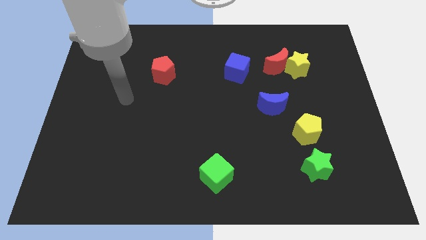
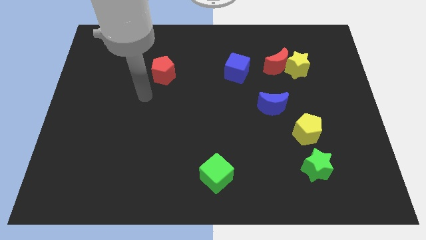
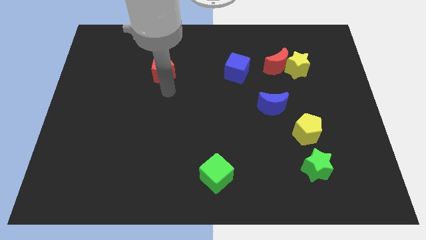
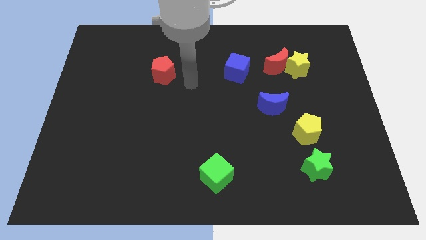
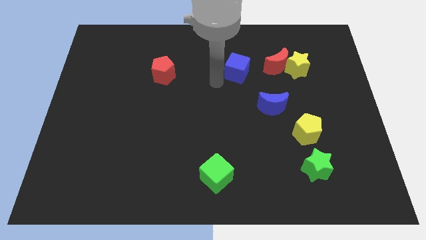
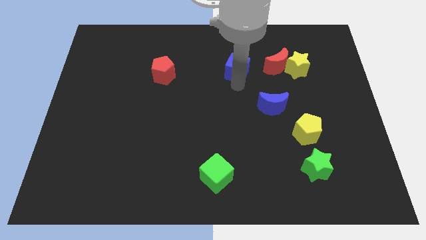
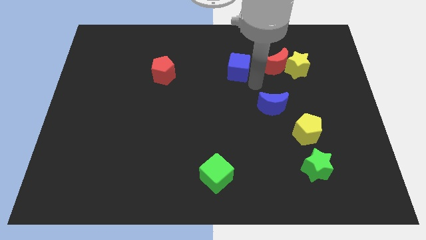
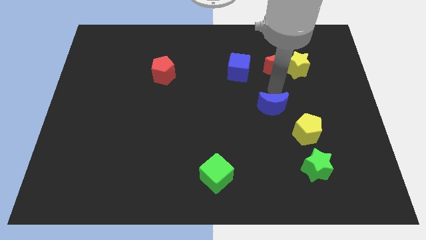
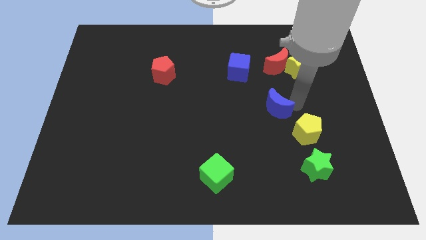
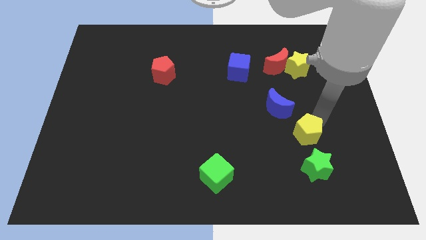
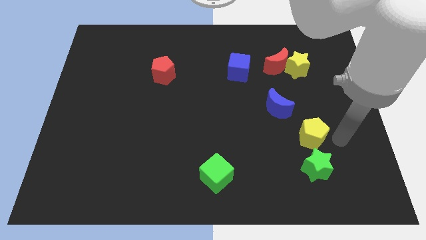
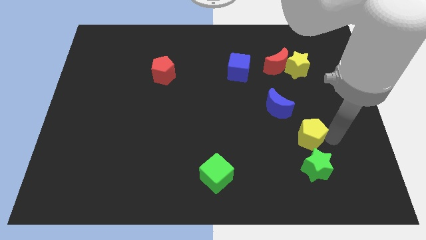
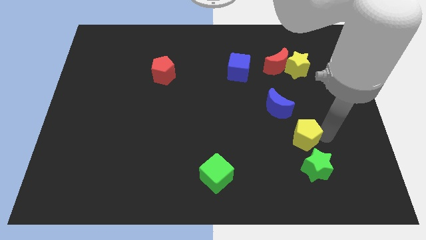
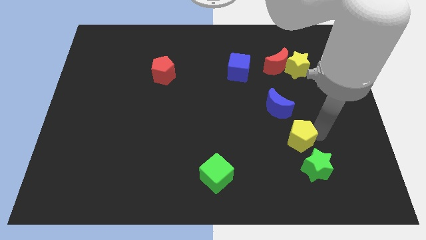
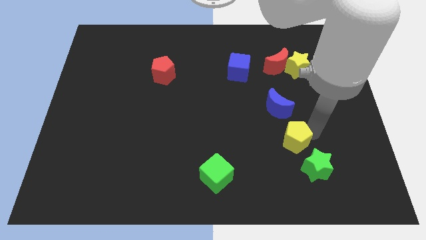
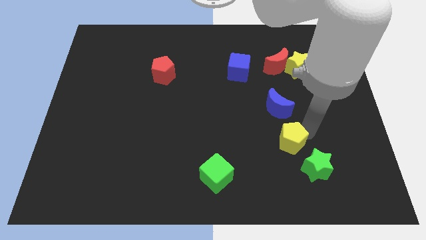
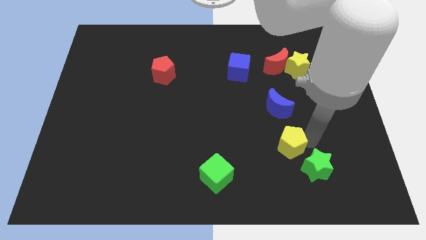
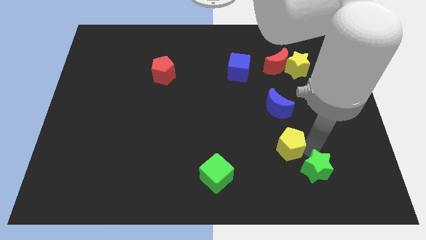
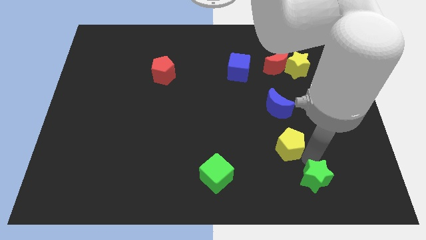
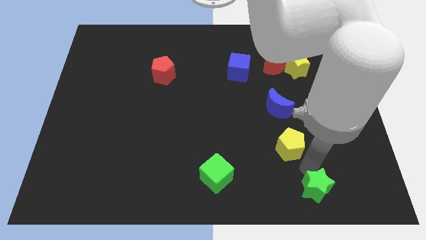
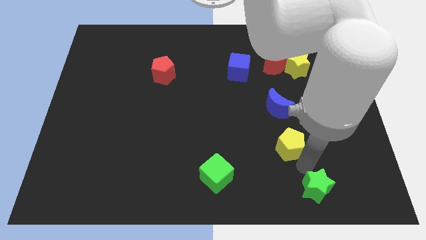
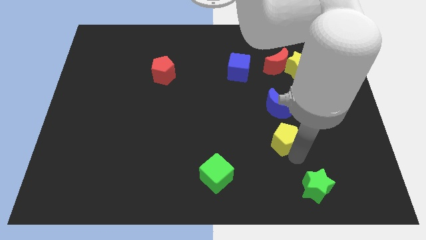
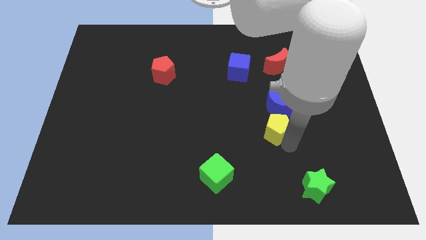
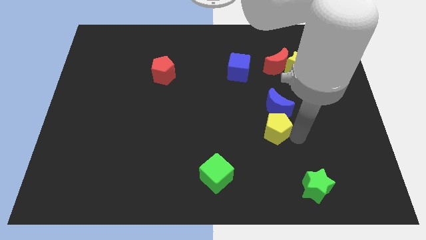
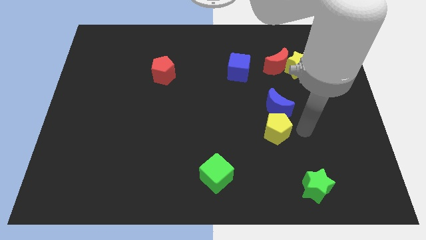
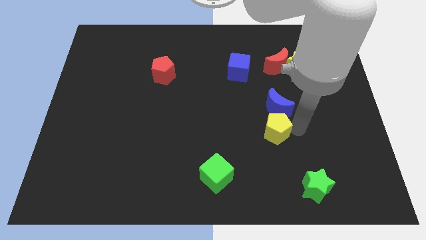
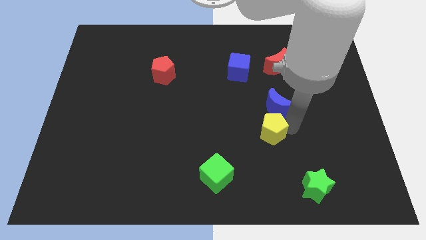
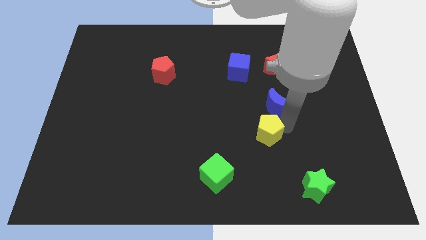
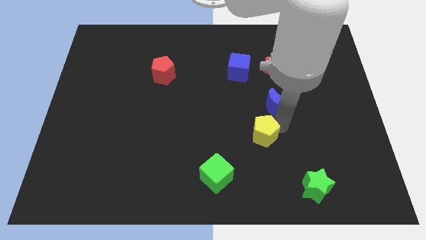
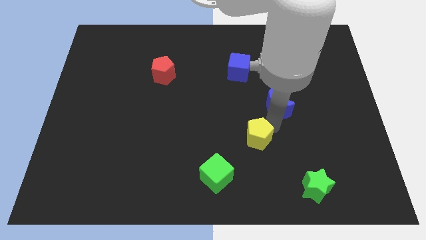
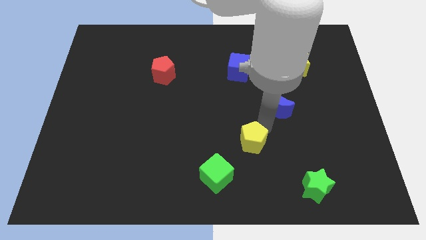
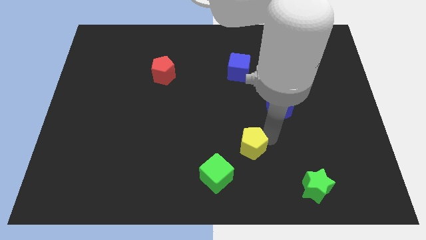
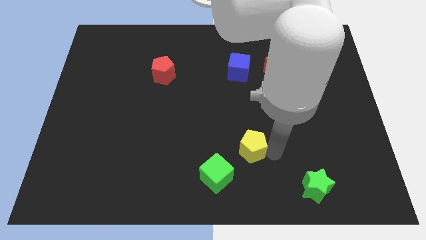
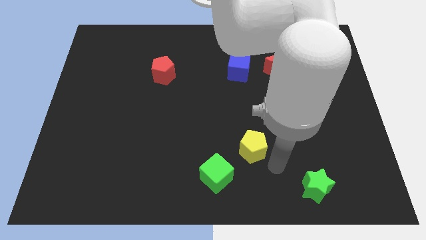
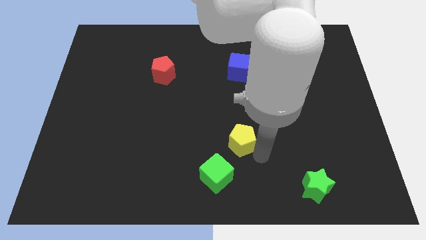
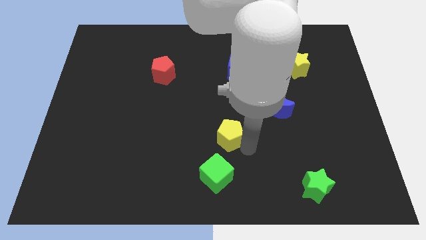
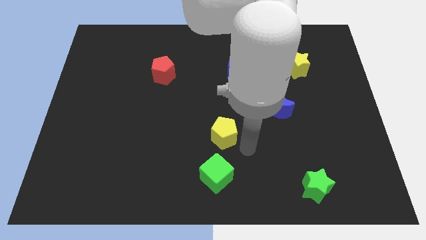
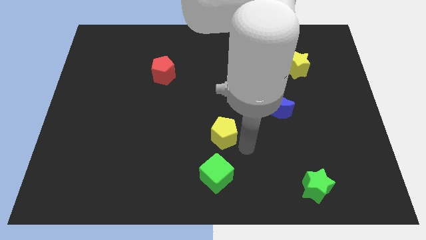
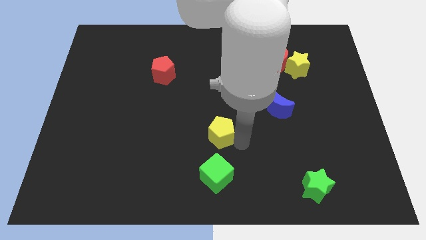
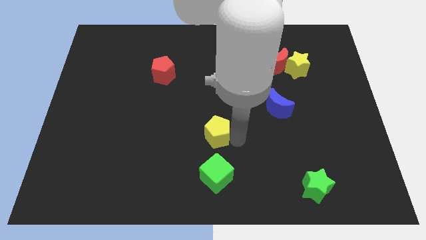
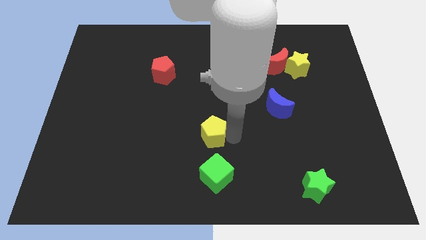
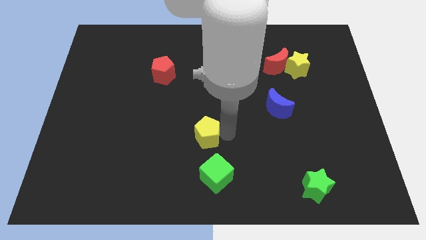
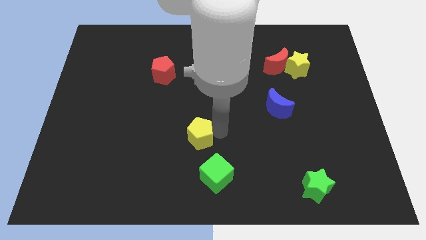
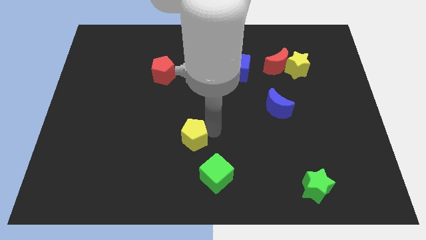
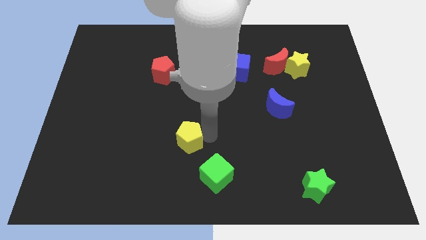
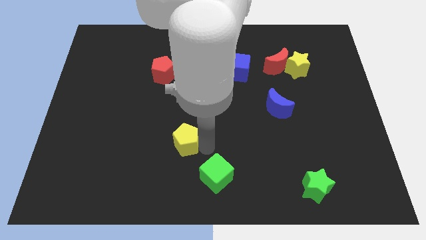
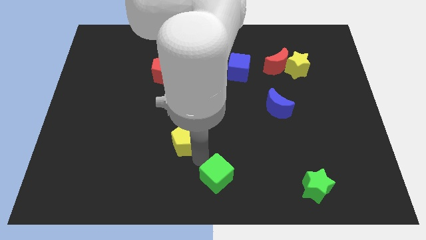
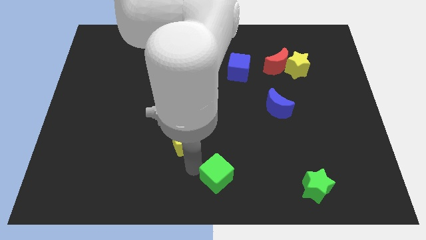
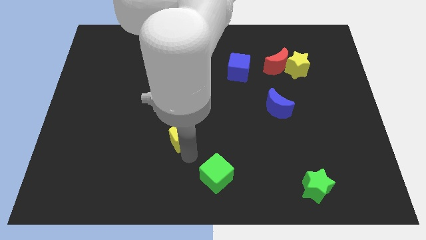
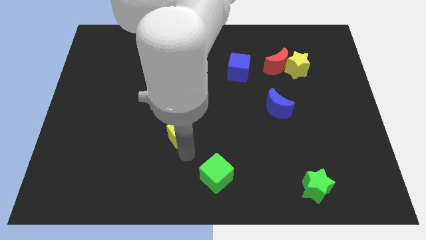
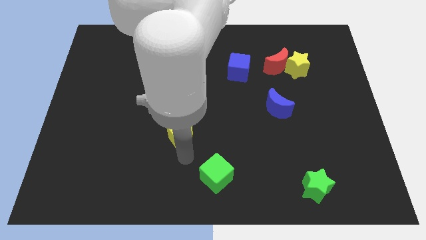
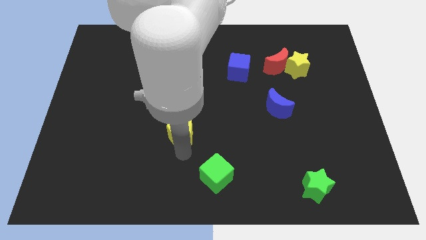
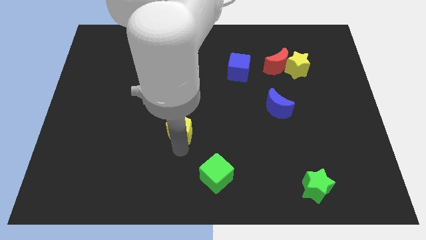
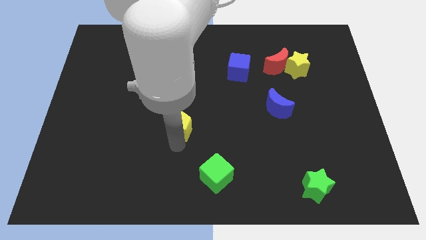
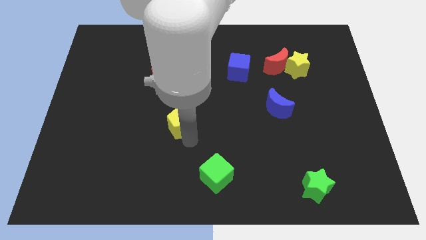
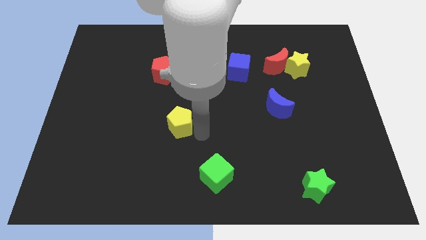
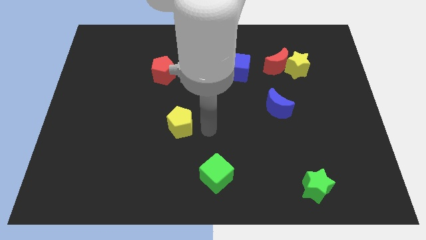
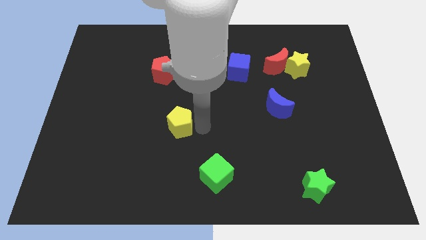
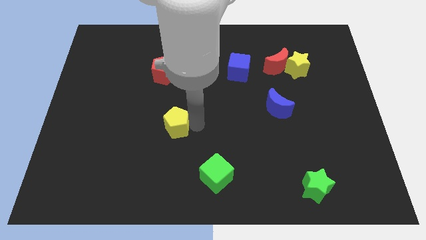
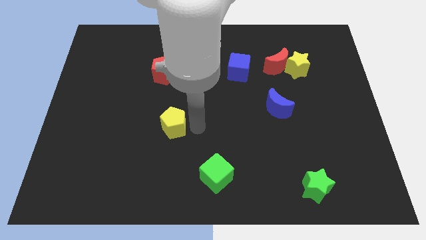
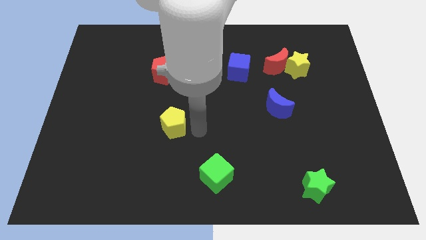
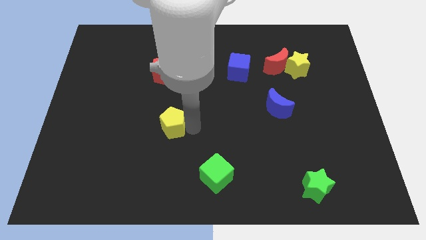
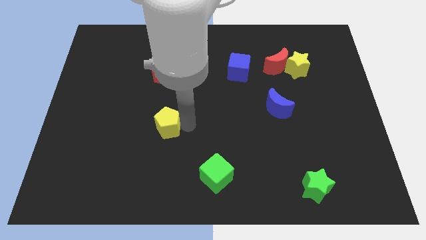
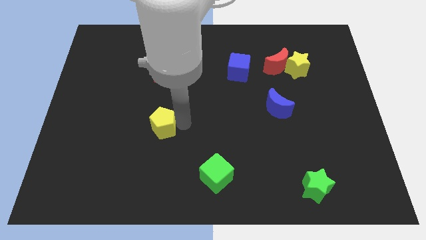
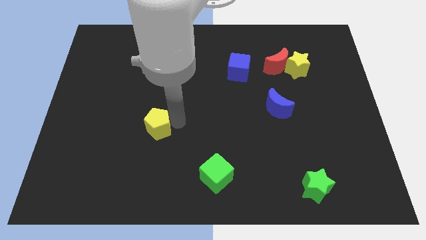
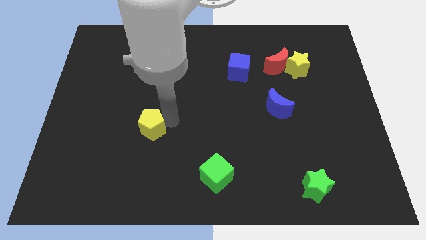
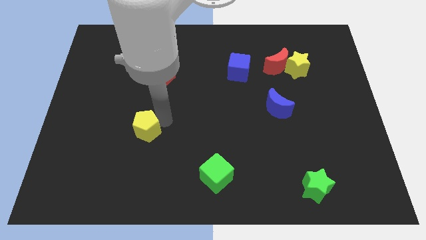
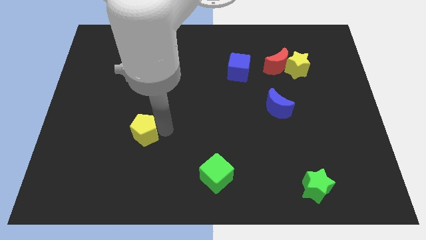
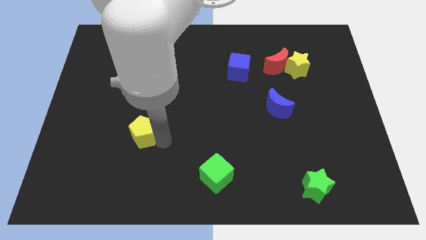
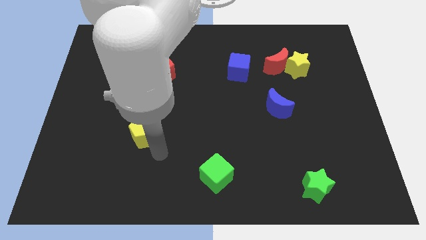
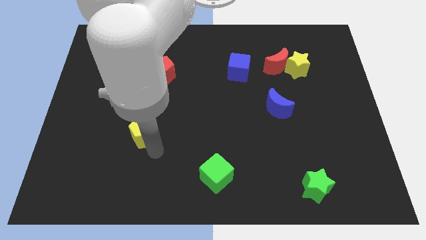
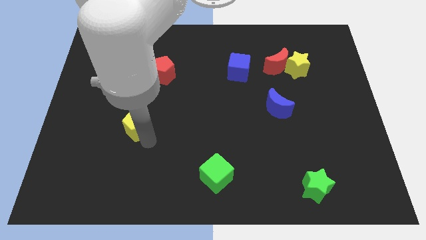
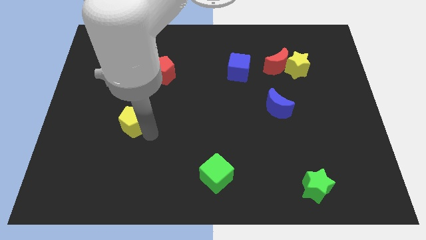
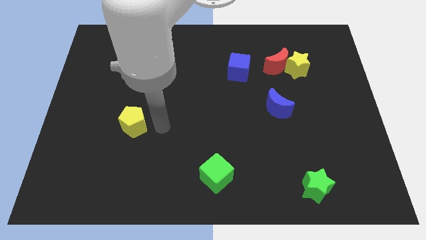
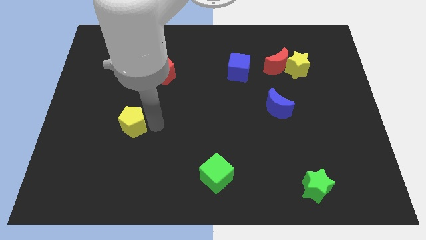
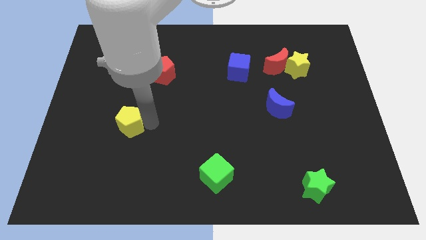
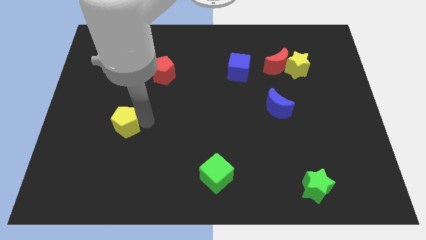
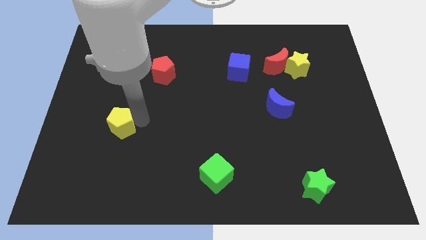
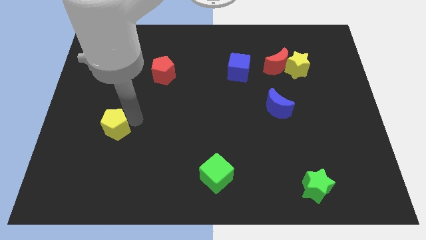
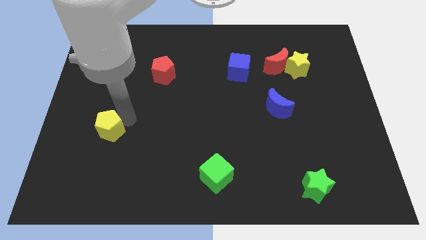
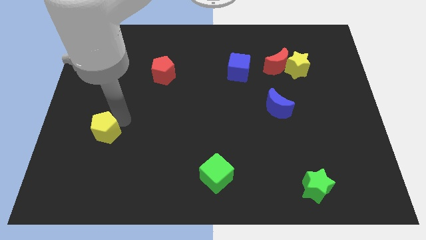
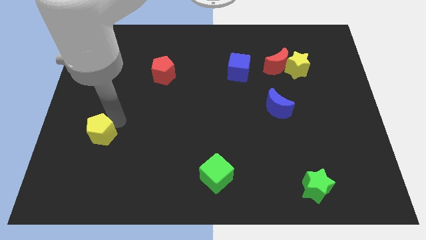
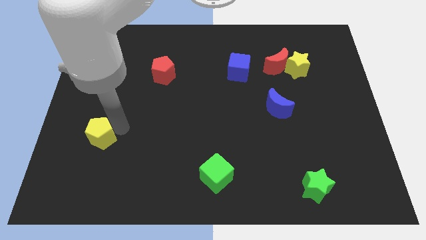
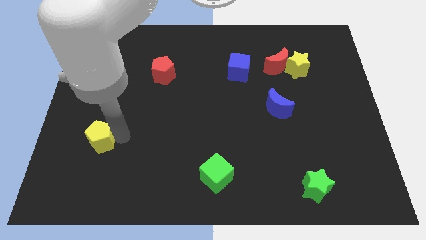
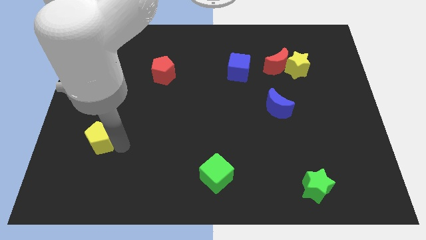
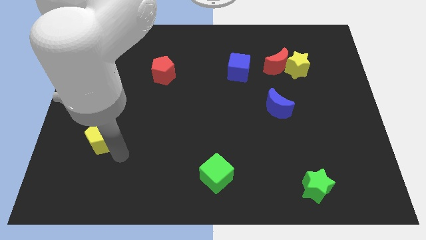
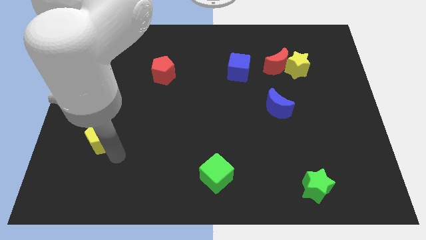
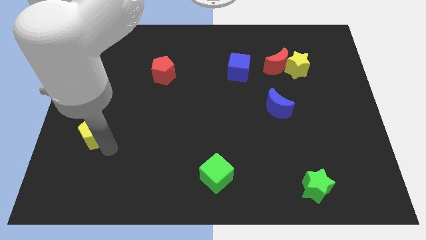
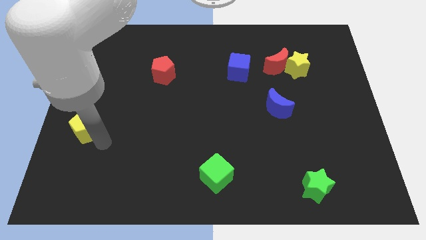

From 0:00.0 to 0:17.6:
move the yellow pentagon to the left side of the board
